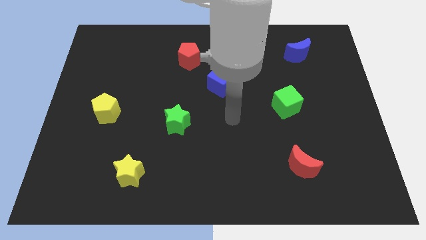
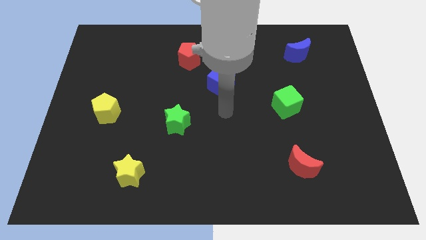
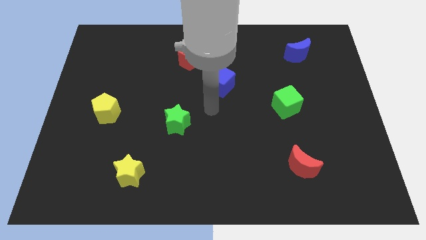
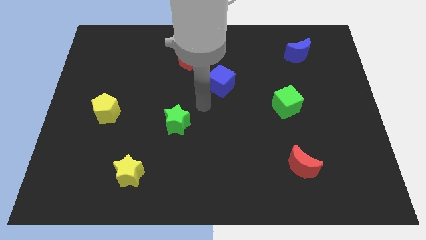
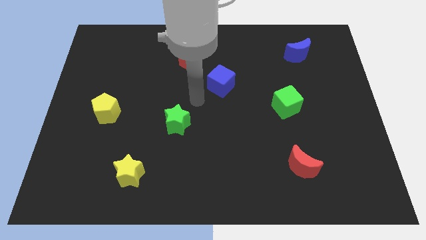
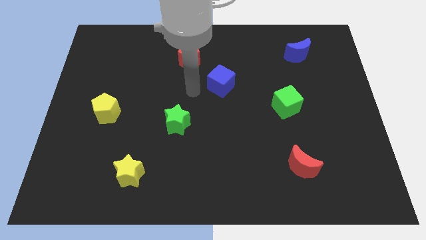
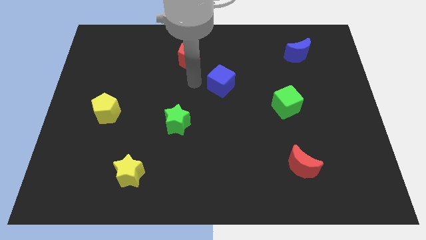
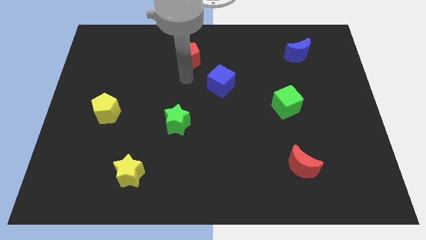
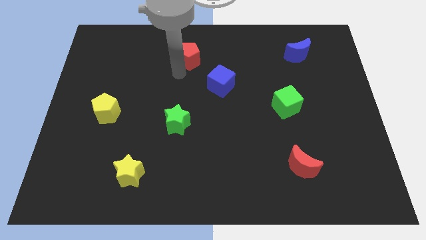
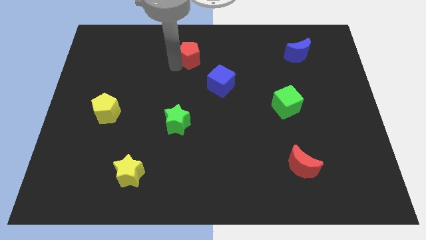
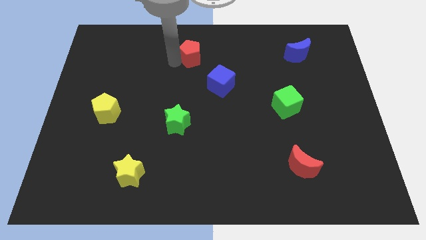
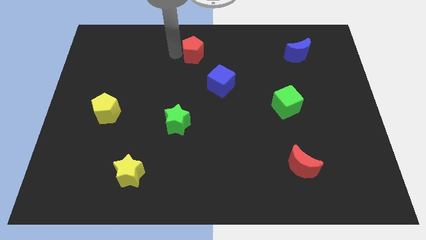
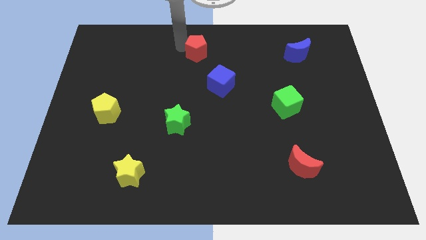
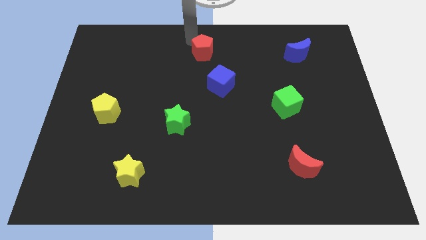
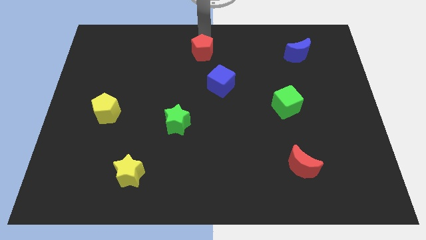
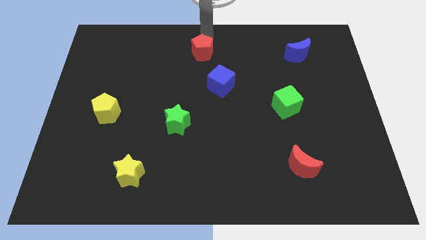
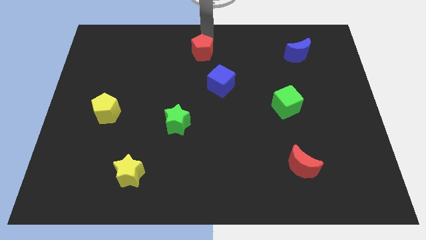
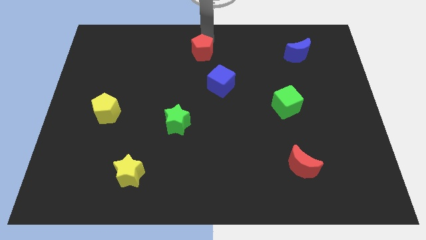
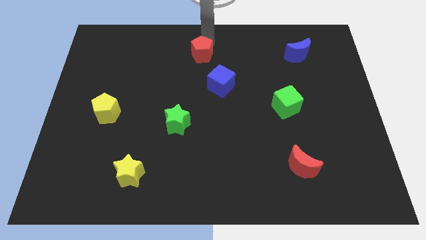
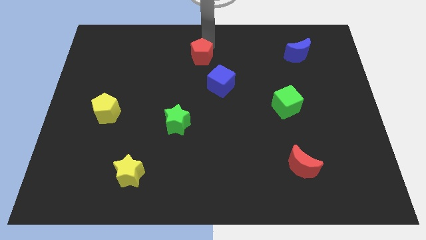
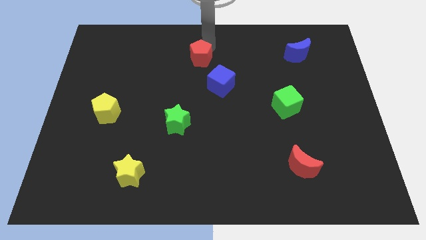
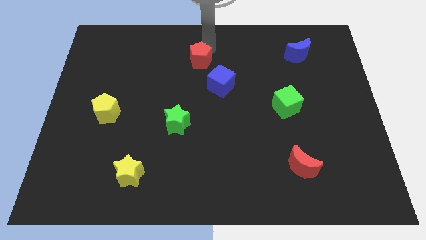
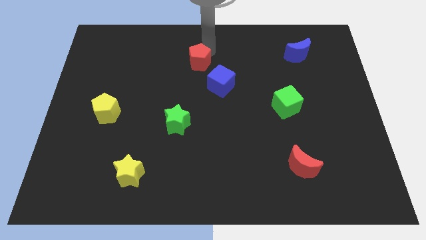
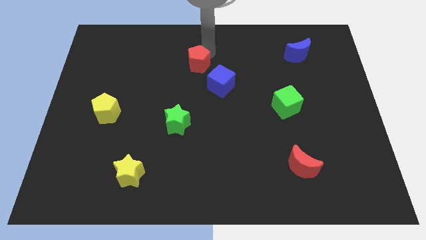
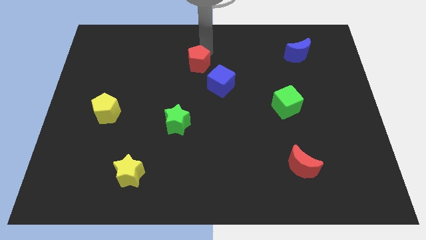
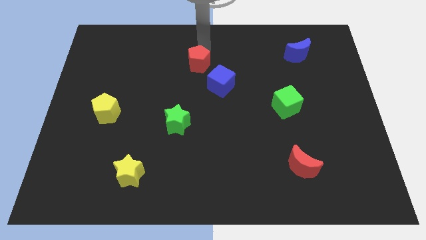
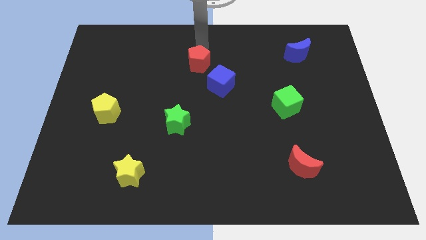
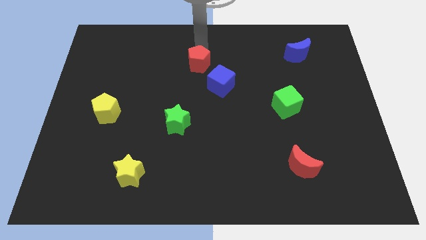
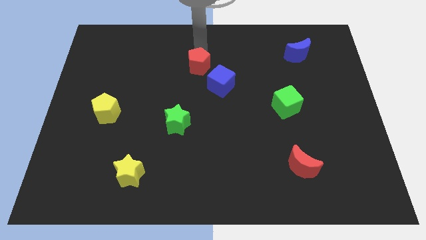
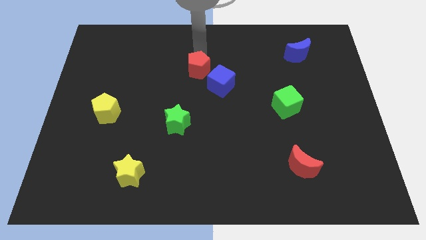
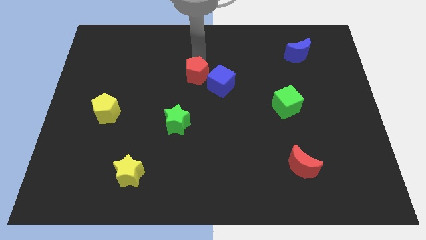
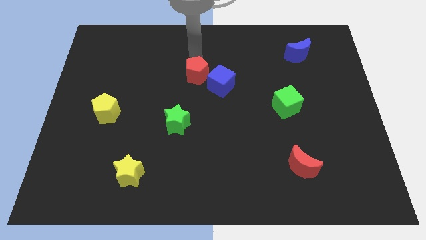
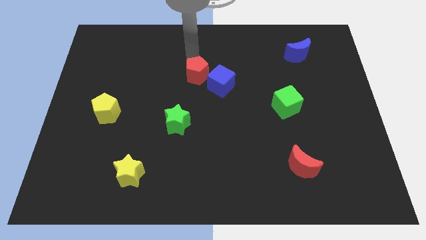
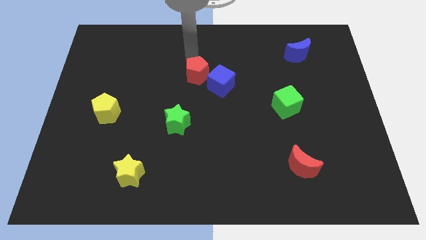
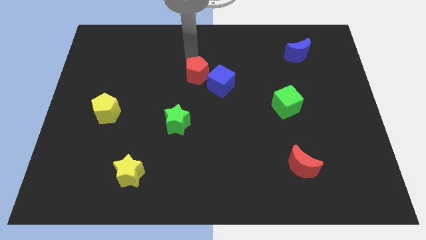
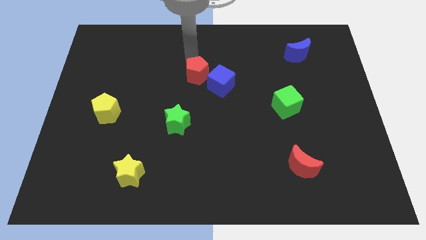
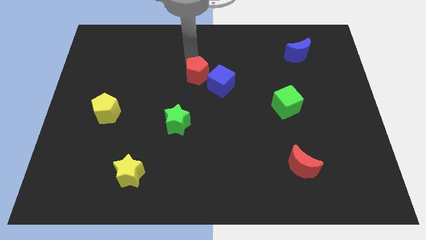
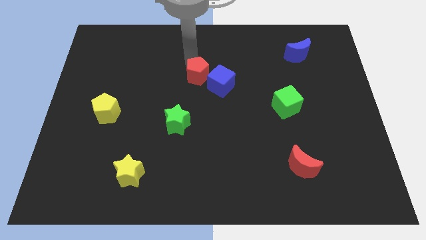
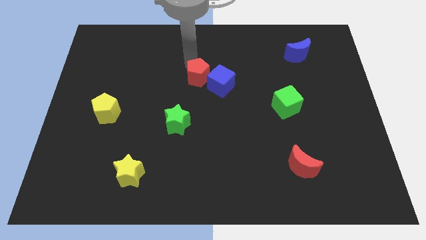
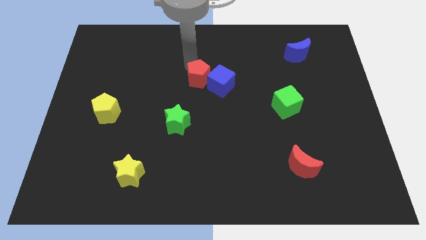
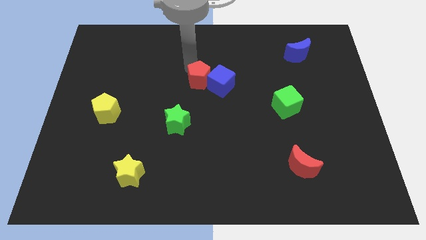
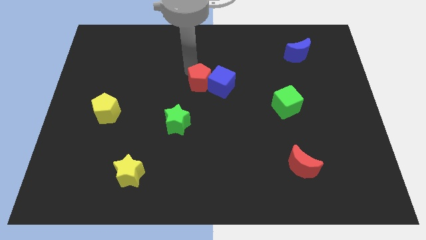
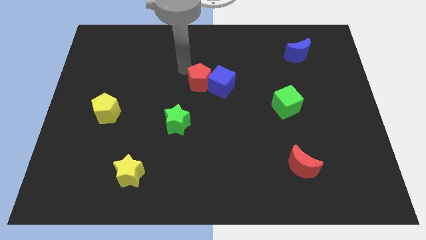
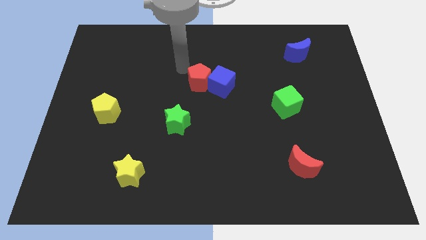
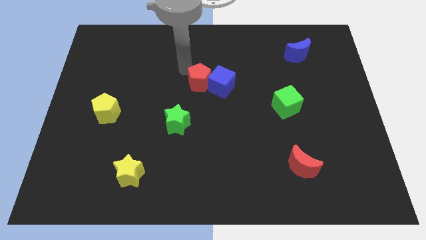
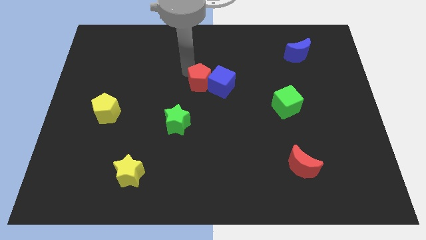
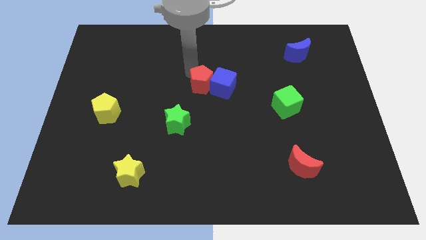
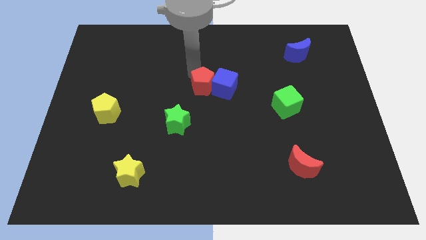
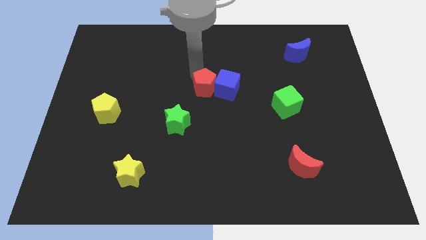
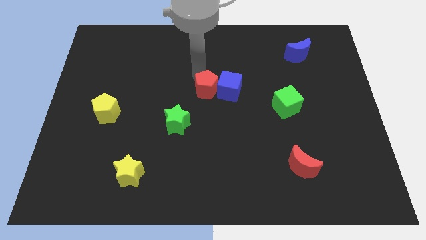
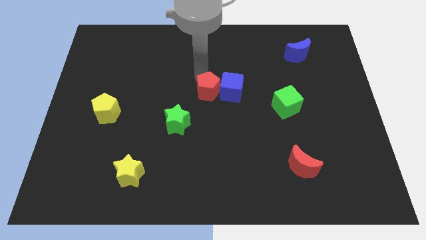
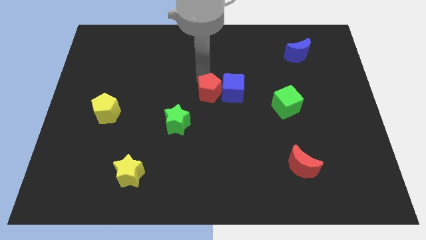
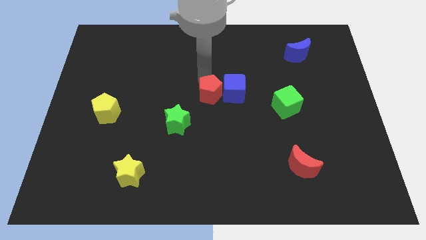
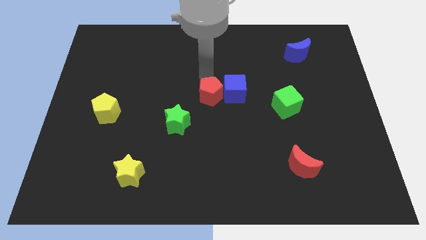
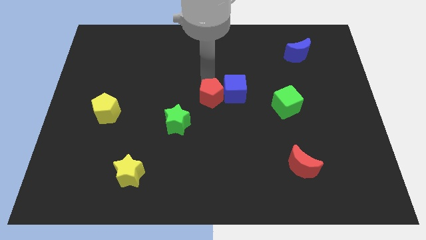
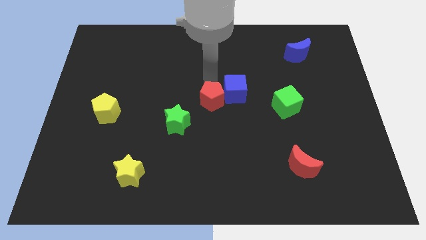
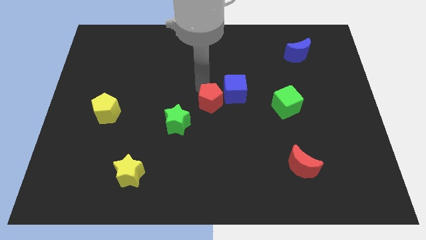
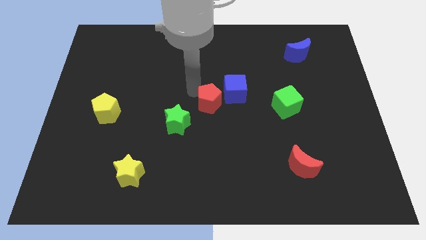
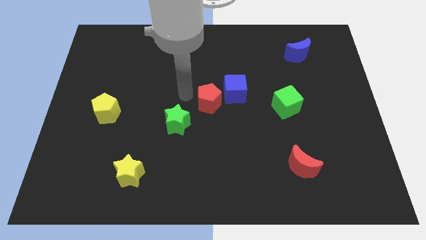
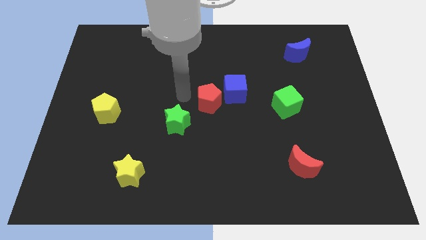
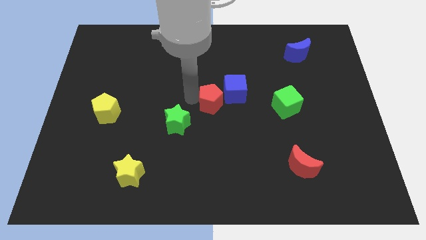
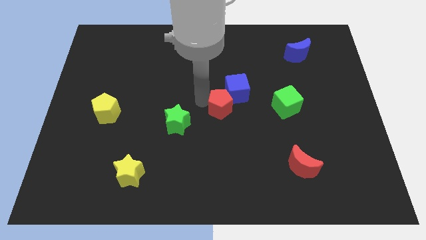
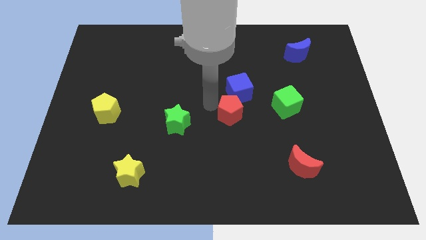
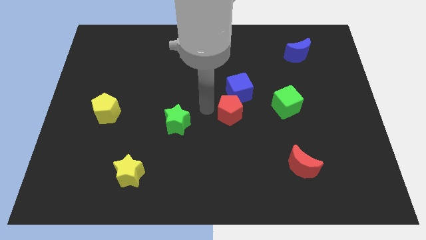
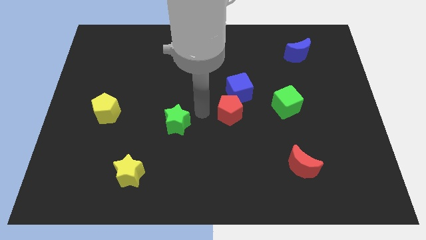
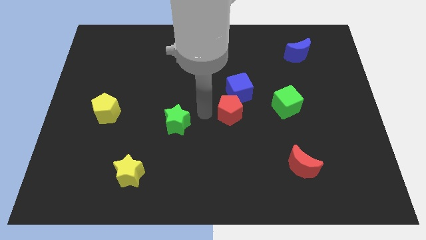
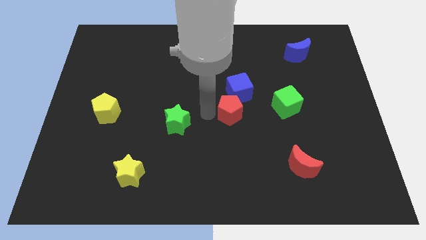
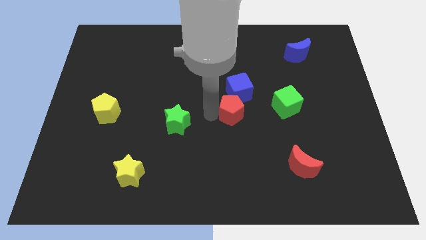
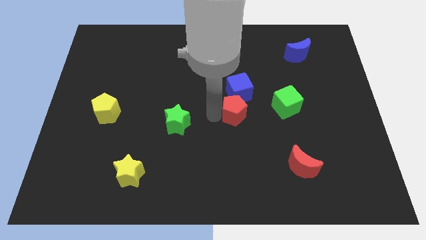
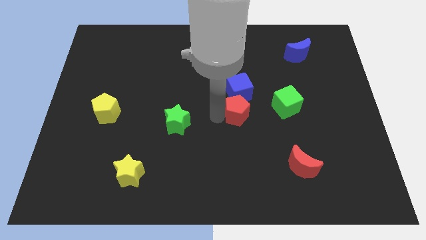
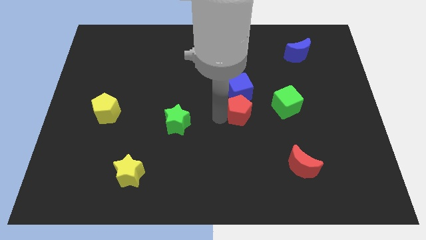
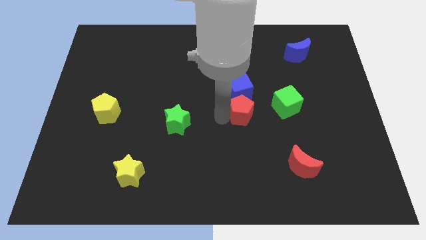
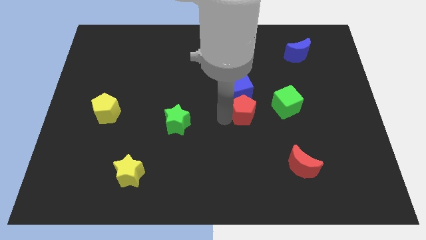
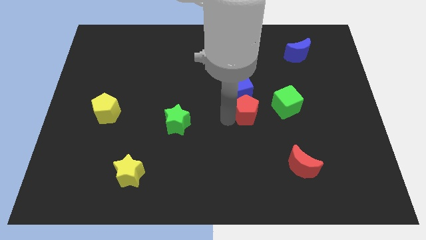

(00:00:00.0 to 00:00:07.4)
put the red pentagon diagonally down and to the left of the green cube
